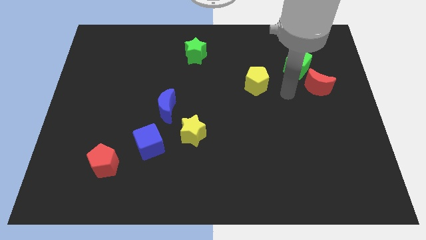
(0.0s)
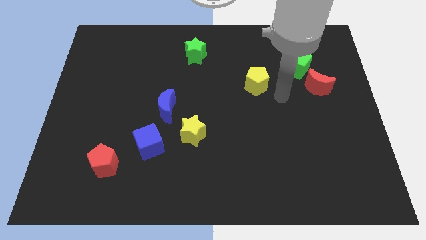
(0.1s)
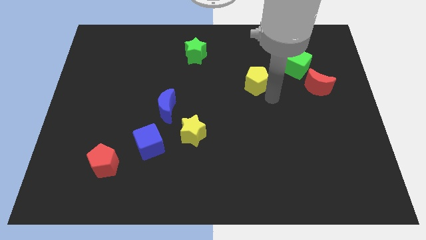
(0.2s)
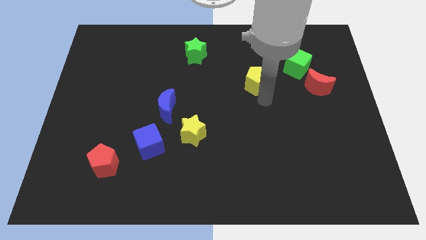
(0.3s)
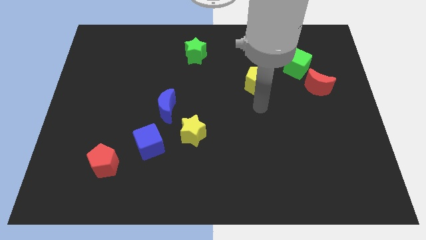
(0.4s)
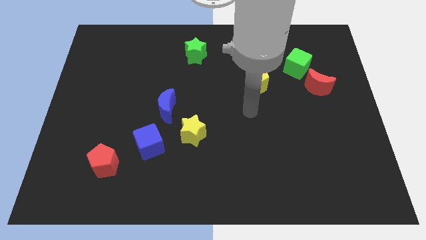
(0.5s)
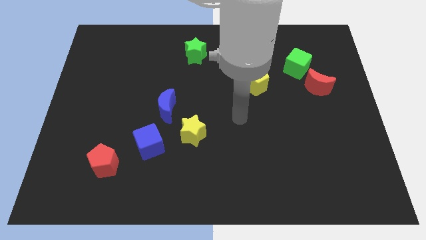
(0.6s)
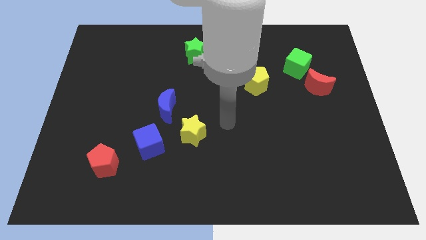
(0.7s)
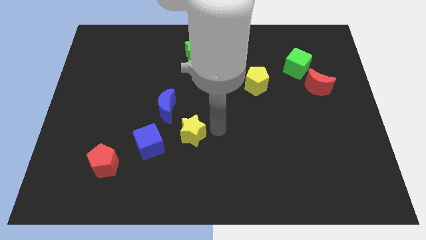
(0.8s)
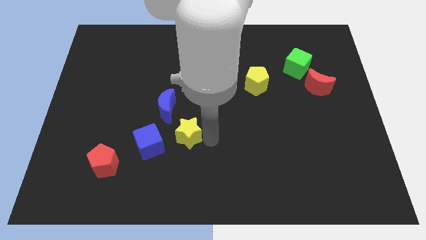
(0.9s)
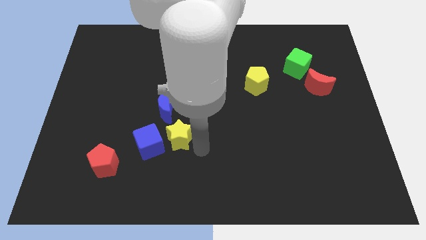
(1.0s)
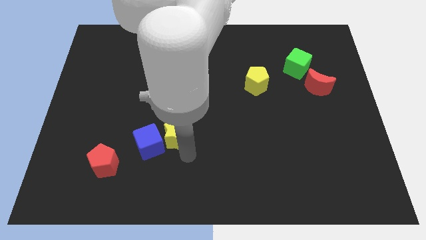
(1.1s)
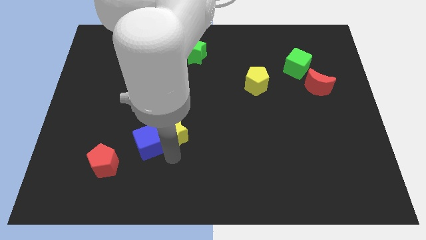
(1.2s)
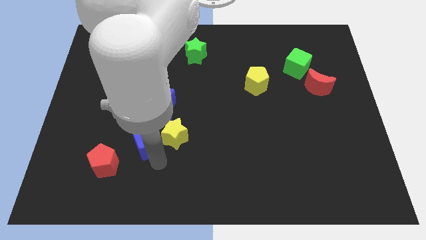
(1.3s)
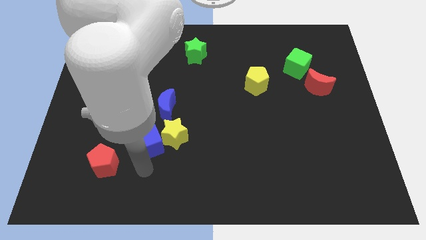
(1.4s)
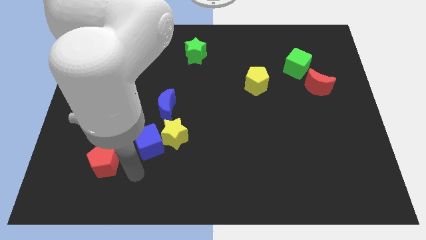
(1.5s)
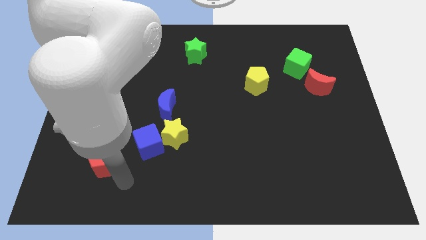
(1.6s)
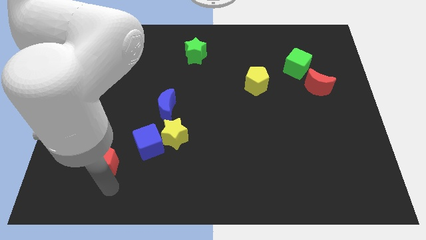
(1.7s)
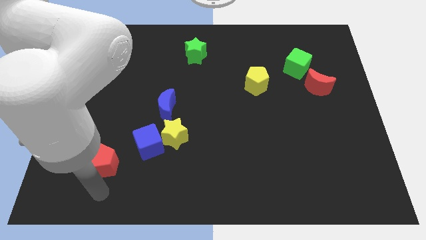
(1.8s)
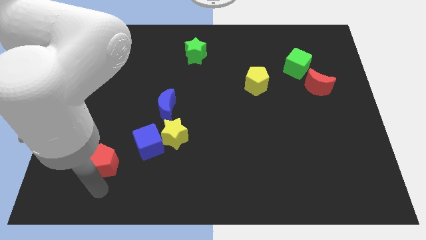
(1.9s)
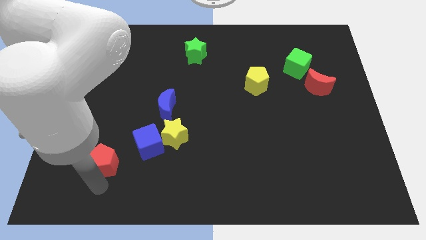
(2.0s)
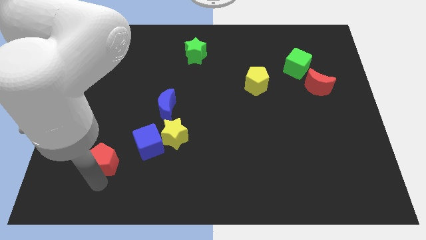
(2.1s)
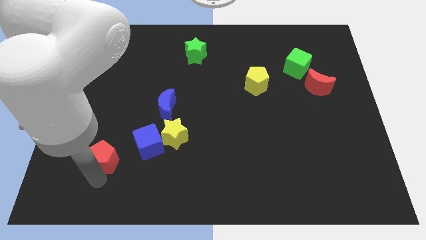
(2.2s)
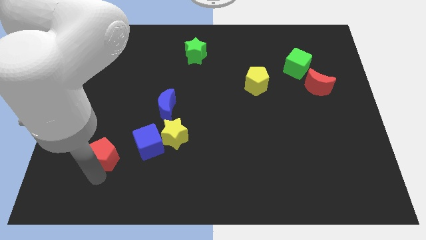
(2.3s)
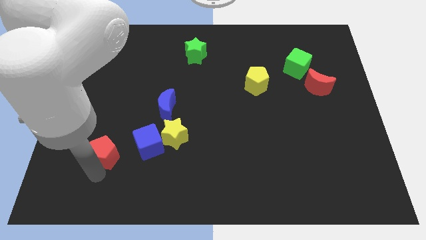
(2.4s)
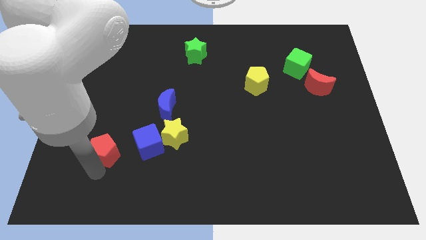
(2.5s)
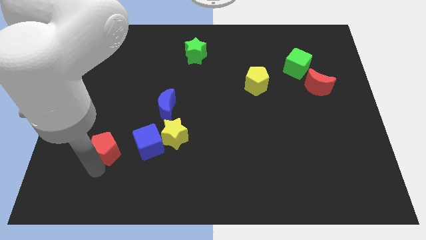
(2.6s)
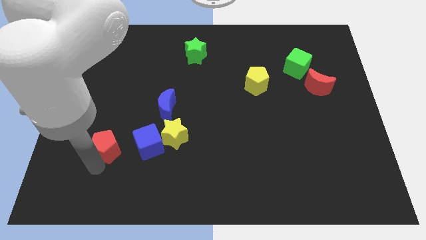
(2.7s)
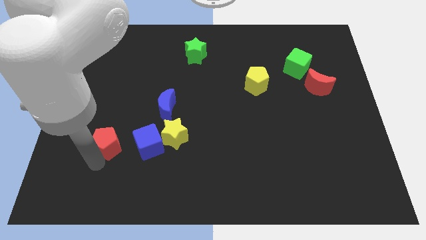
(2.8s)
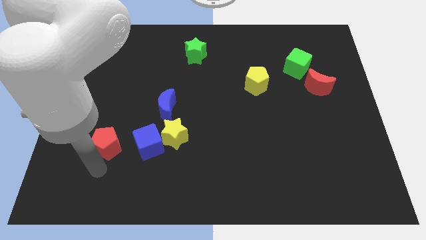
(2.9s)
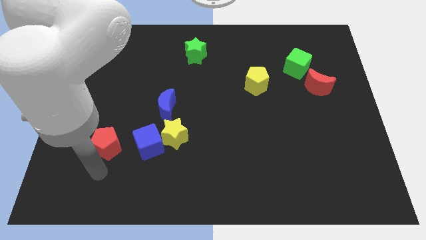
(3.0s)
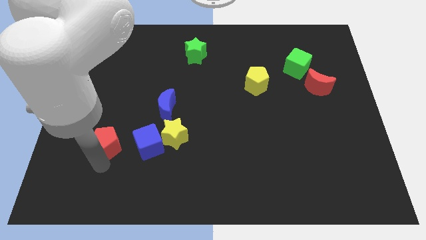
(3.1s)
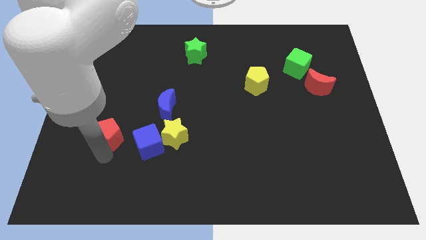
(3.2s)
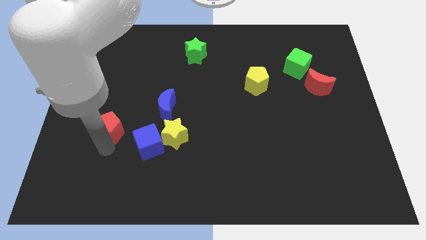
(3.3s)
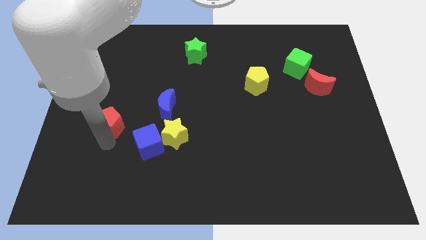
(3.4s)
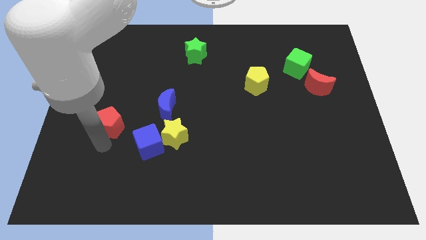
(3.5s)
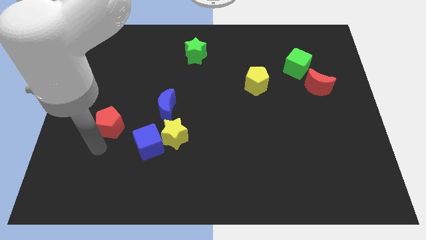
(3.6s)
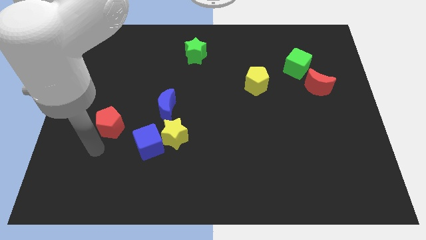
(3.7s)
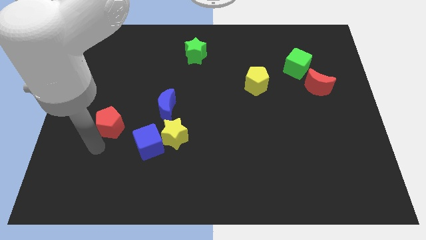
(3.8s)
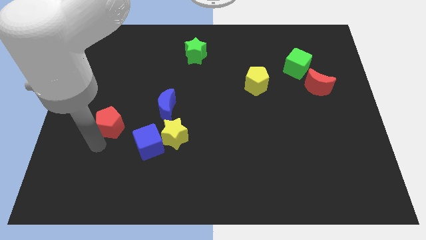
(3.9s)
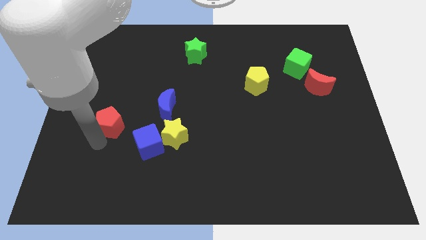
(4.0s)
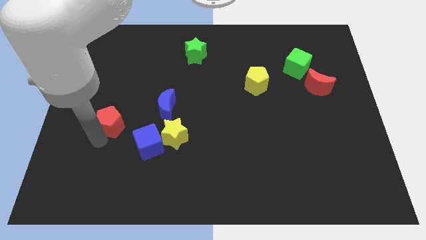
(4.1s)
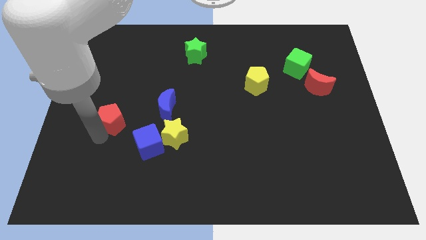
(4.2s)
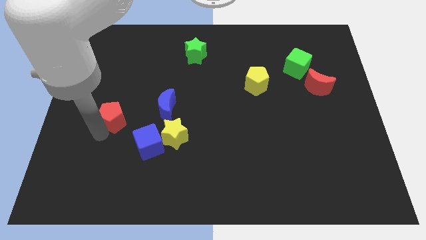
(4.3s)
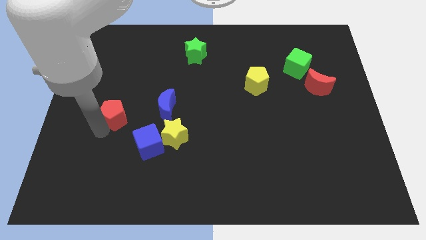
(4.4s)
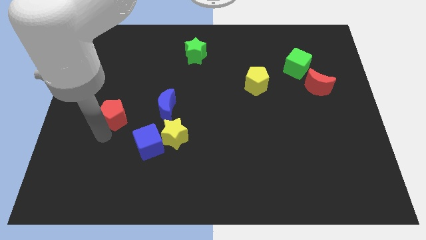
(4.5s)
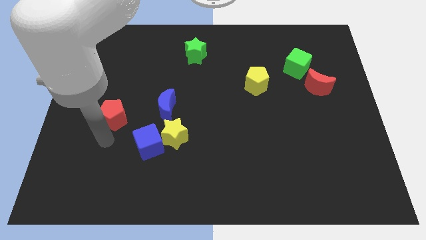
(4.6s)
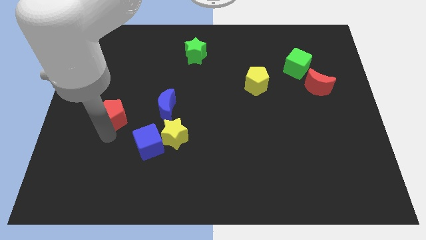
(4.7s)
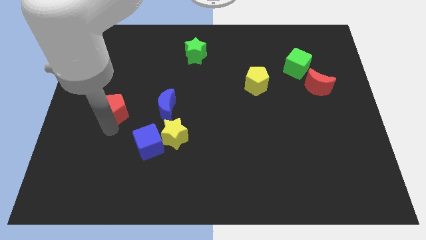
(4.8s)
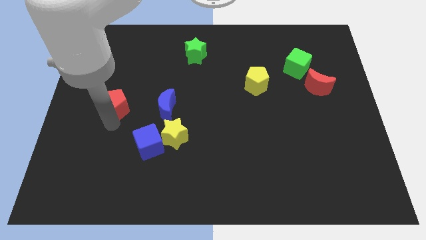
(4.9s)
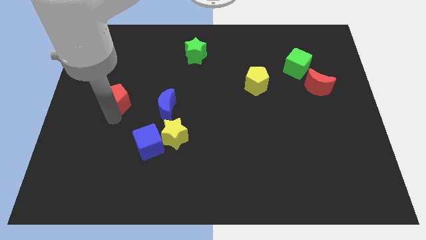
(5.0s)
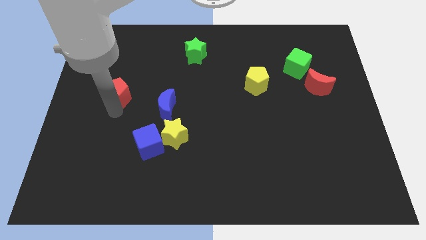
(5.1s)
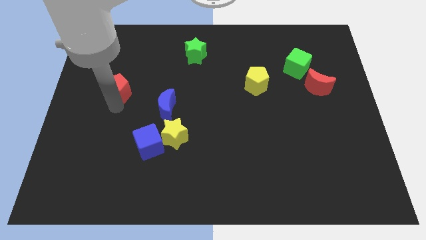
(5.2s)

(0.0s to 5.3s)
slide the red pentagon up

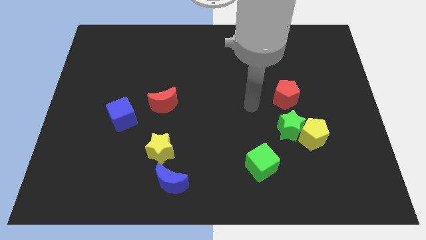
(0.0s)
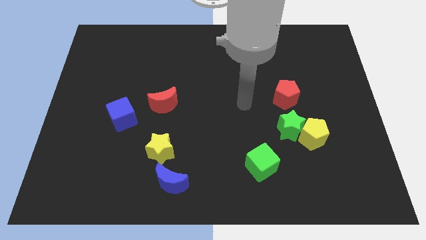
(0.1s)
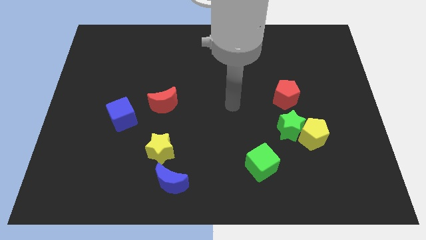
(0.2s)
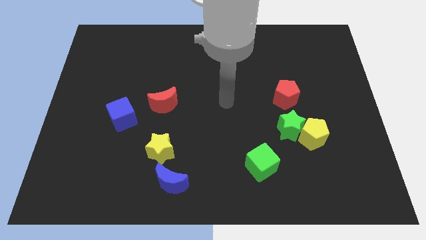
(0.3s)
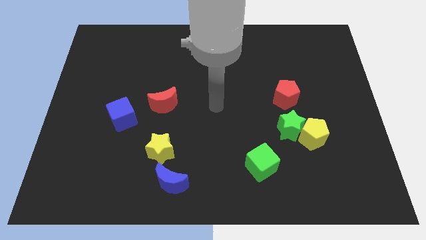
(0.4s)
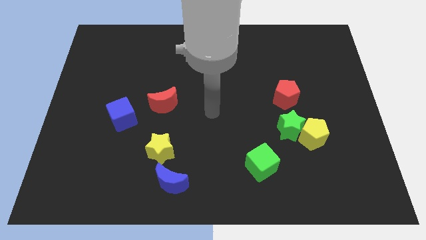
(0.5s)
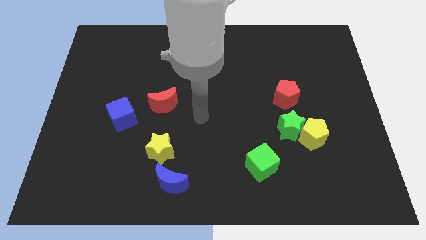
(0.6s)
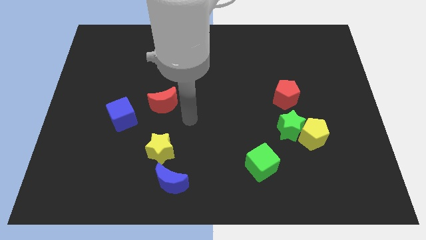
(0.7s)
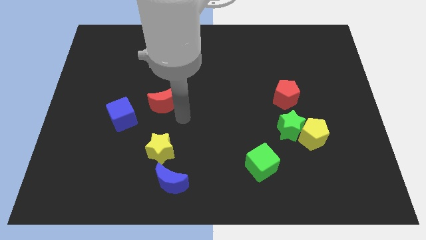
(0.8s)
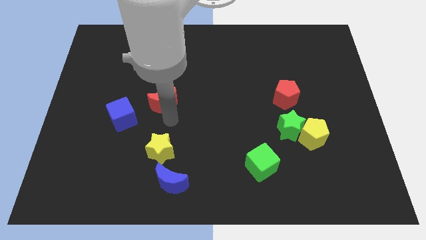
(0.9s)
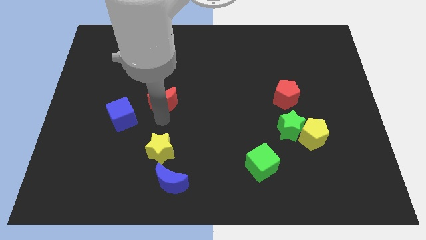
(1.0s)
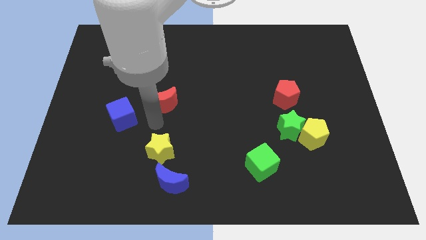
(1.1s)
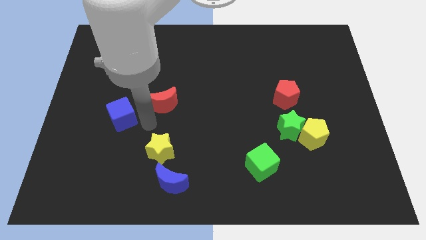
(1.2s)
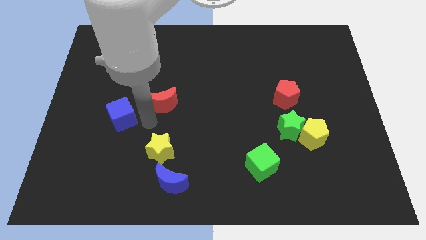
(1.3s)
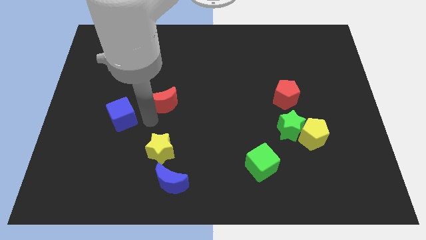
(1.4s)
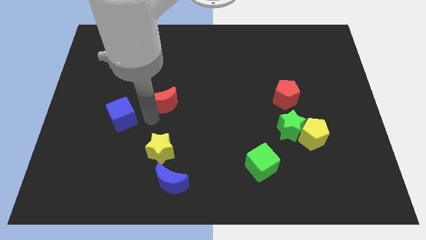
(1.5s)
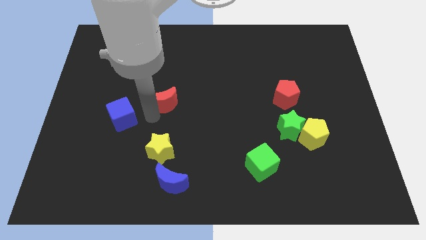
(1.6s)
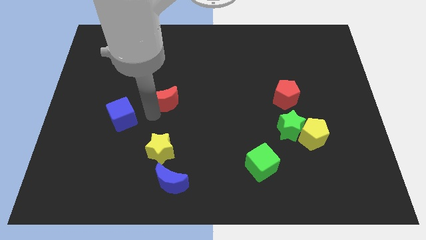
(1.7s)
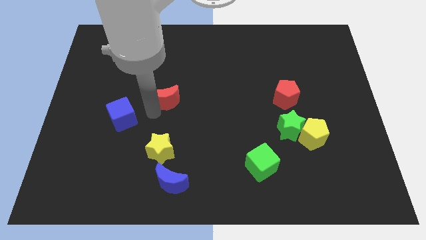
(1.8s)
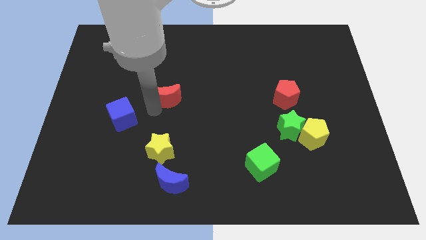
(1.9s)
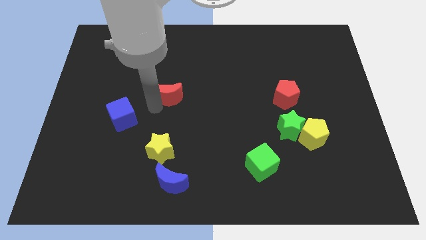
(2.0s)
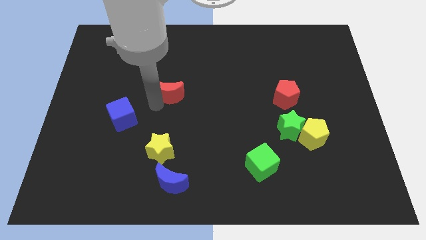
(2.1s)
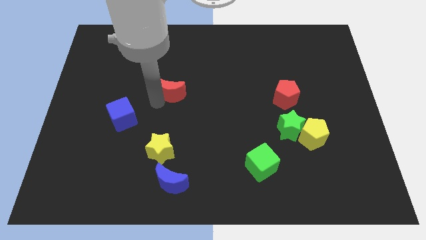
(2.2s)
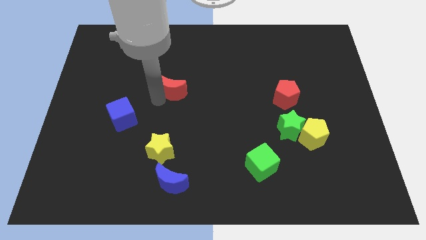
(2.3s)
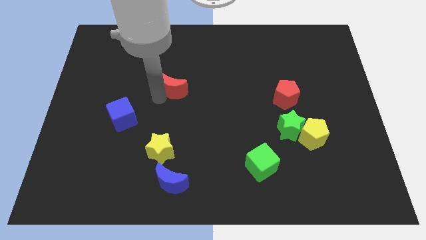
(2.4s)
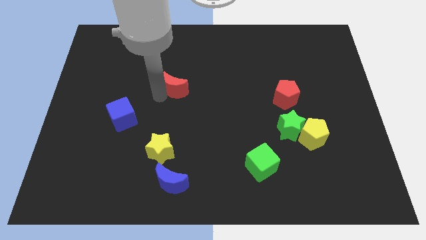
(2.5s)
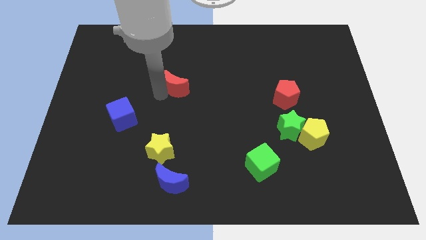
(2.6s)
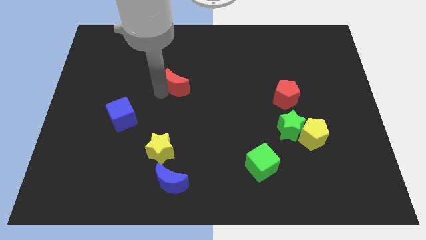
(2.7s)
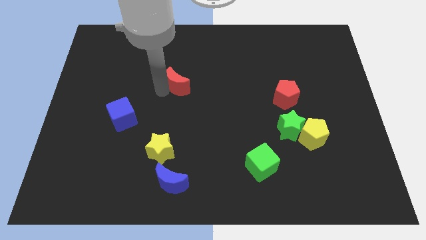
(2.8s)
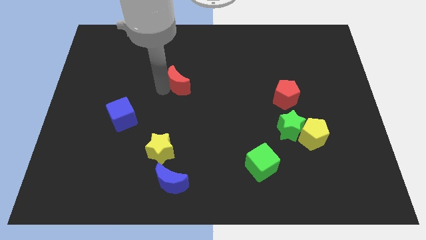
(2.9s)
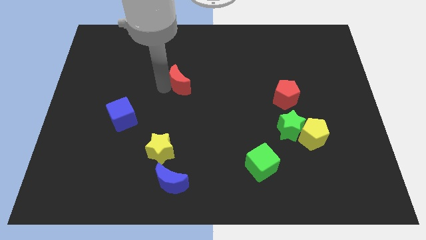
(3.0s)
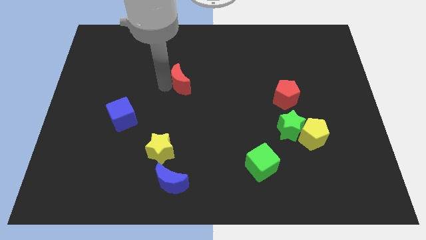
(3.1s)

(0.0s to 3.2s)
slightly move the red moon up and to the right diagonally
